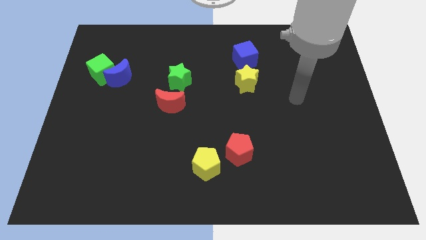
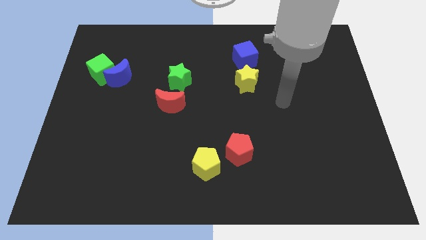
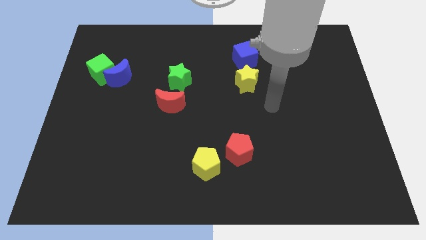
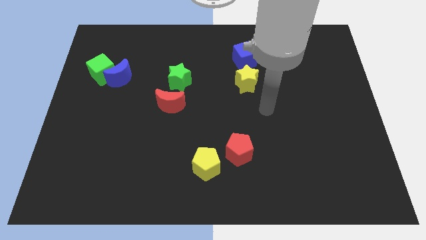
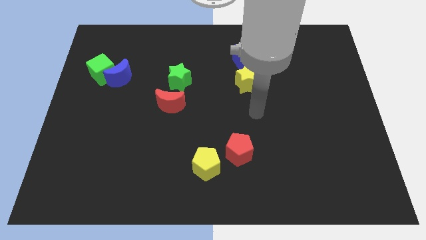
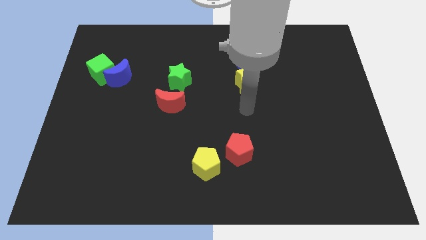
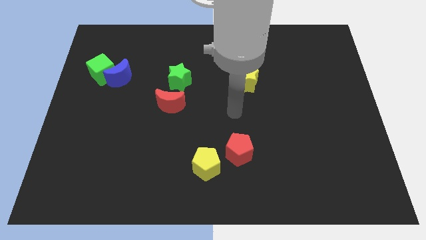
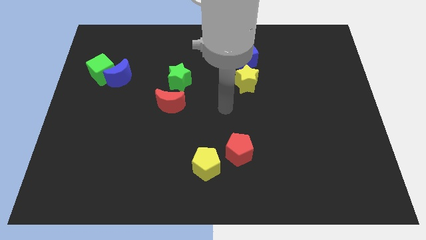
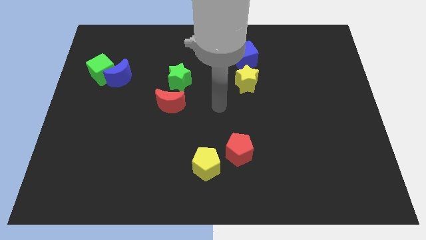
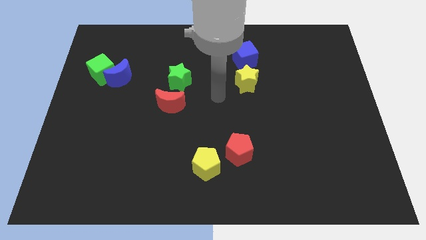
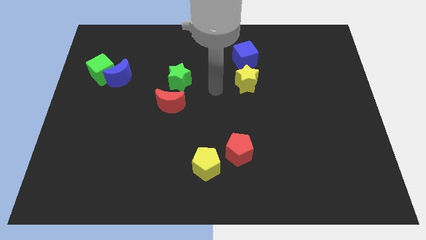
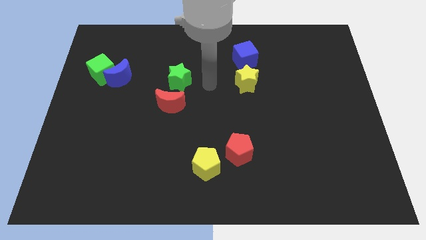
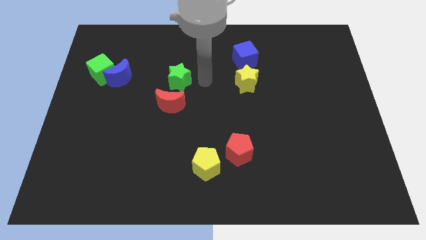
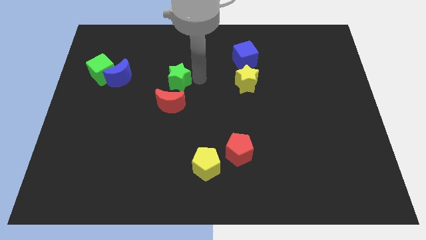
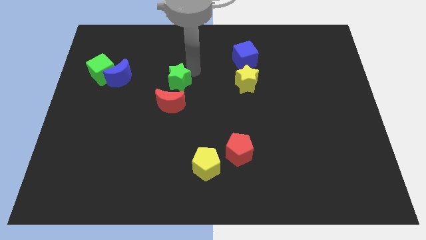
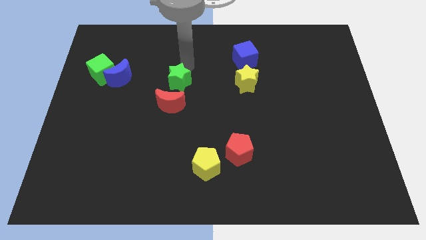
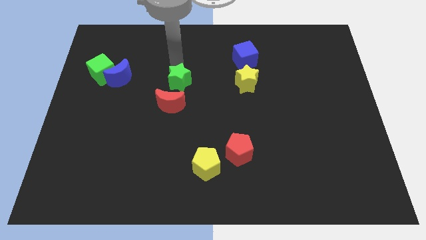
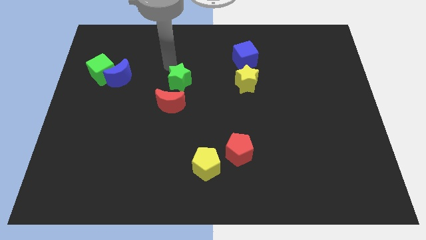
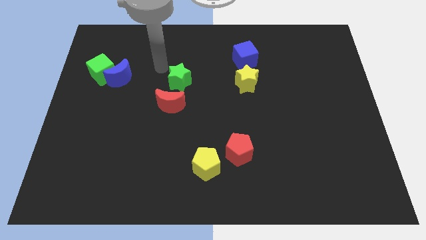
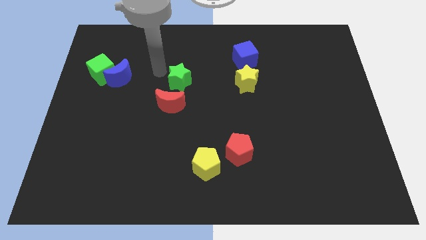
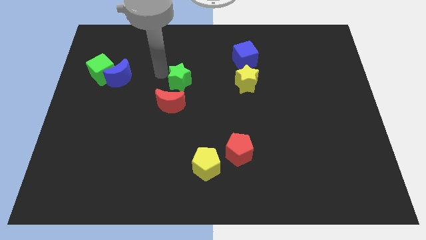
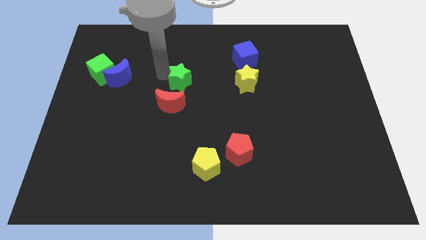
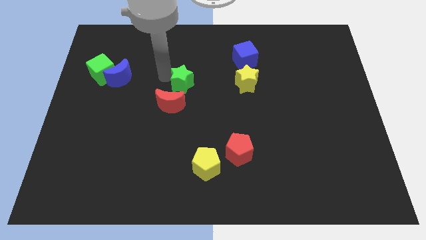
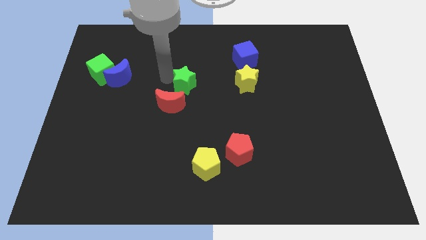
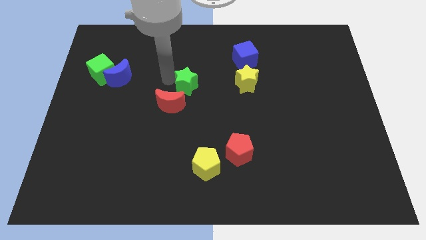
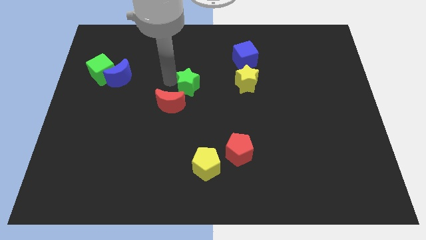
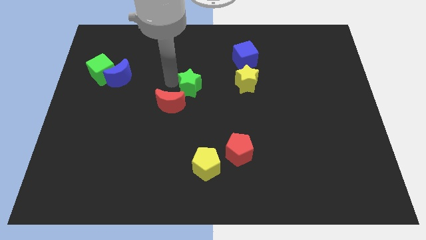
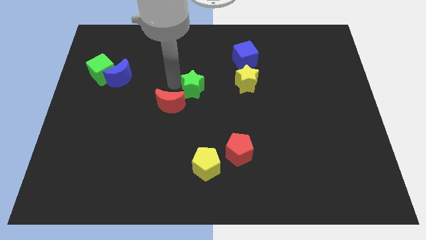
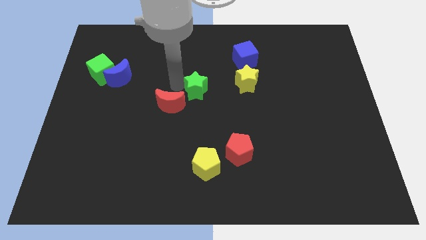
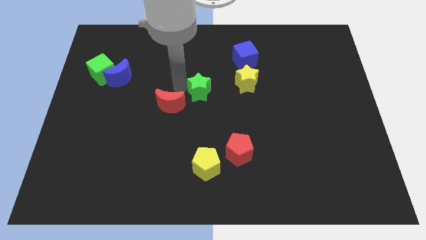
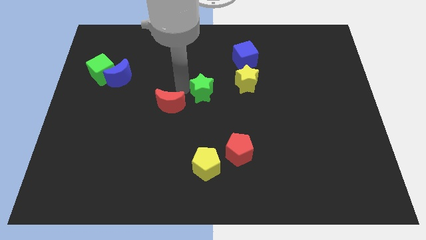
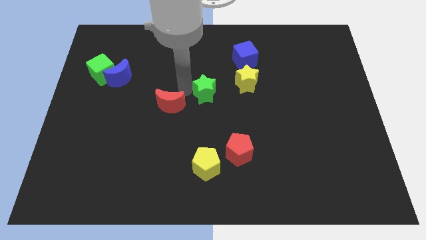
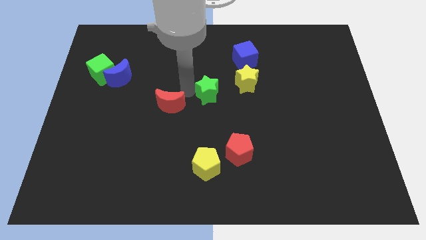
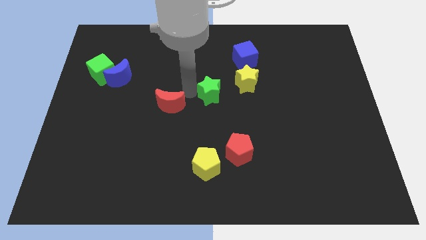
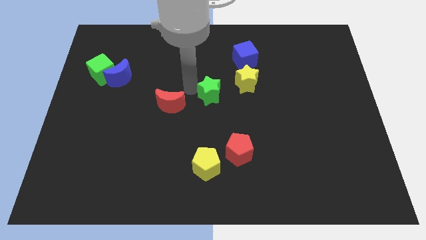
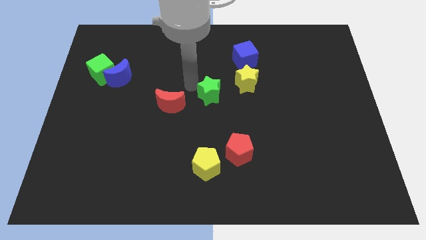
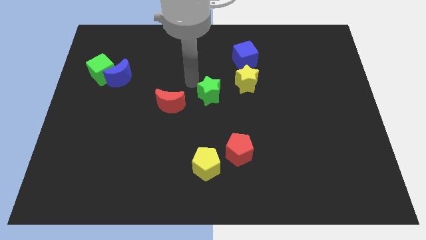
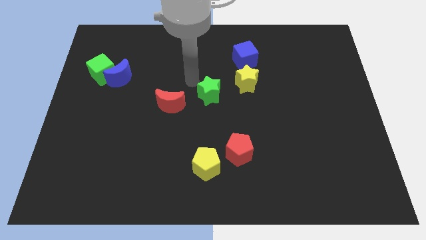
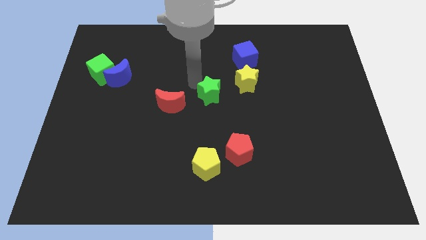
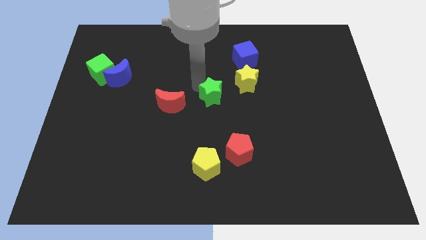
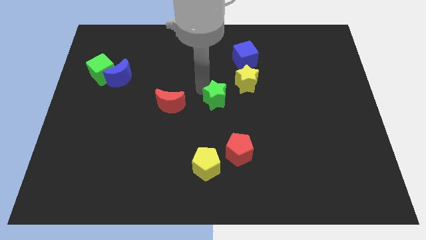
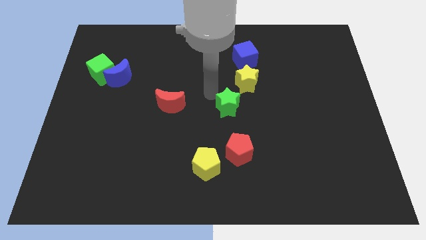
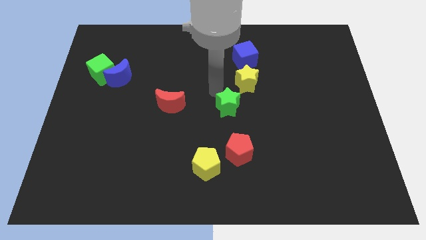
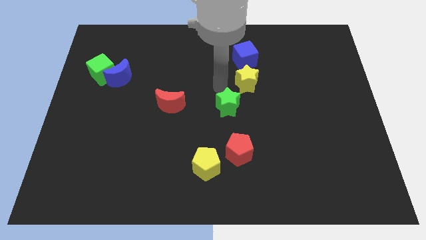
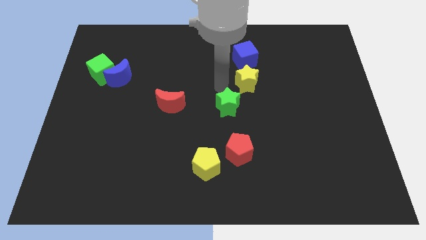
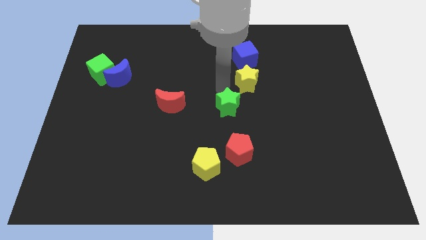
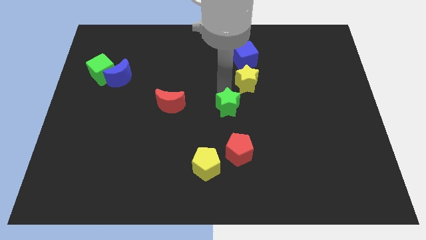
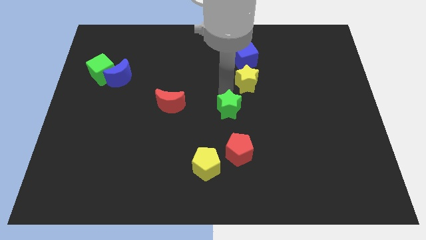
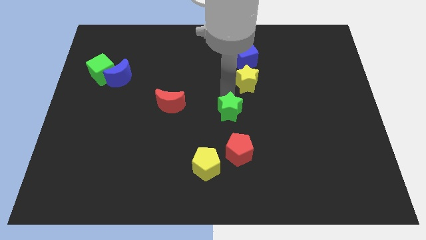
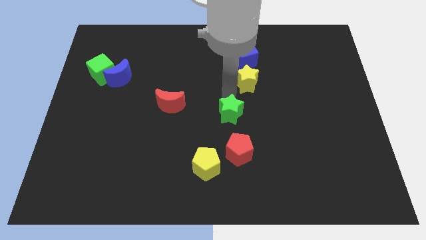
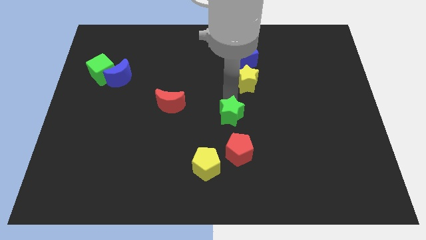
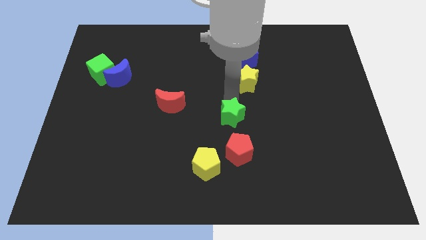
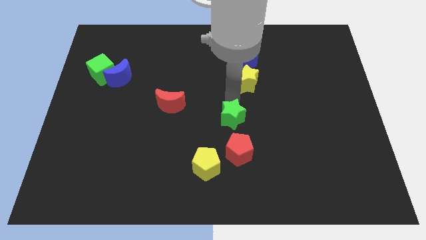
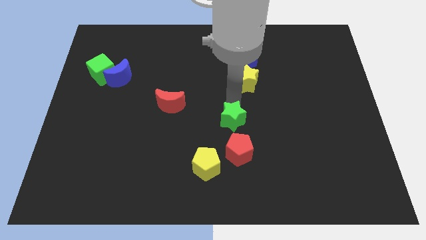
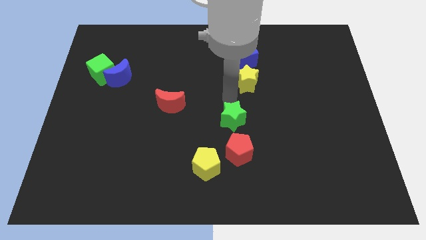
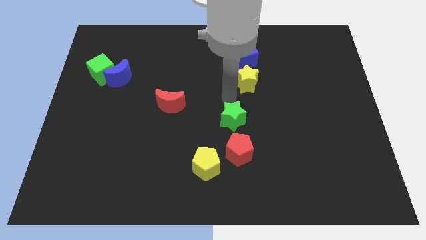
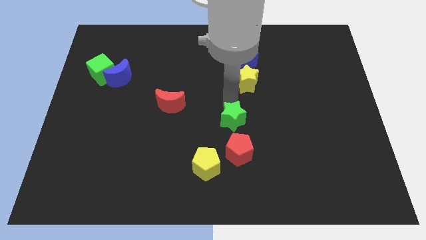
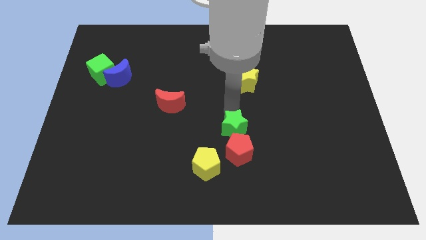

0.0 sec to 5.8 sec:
push the green star towards the red pentagon
